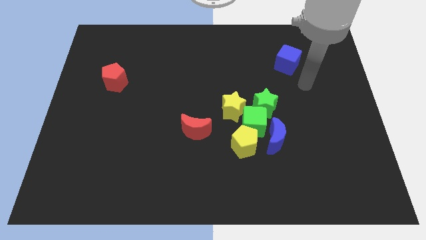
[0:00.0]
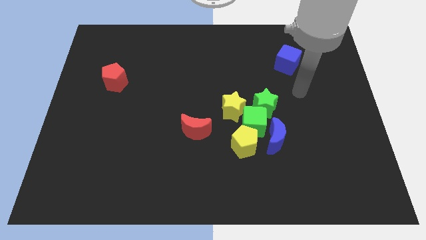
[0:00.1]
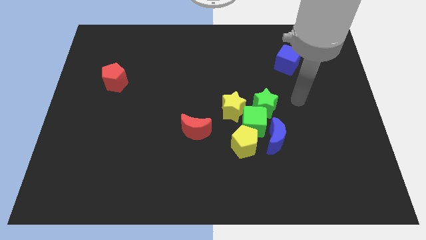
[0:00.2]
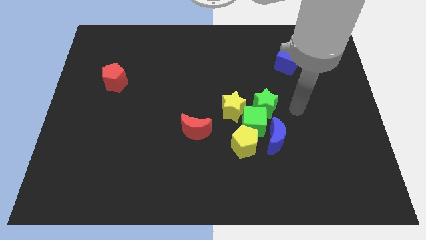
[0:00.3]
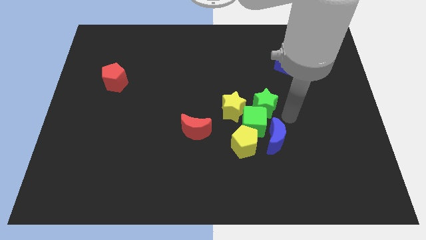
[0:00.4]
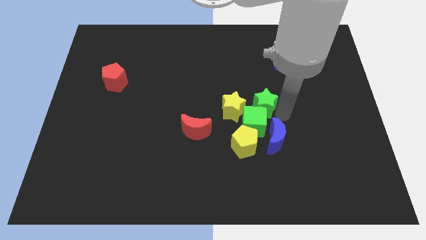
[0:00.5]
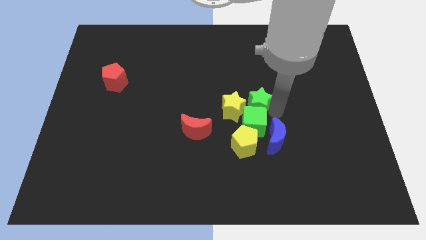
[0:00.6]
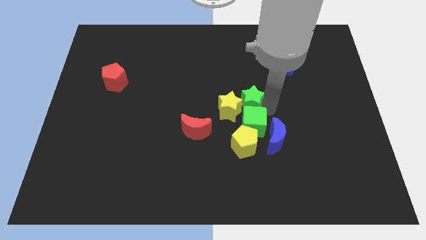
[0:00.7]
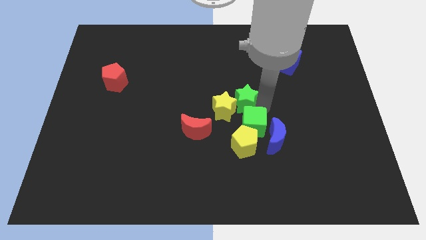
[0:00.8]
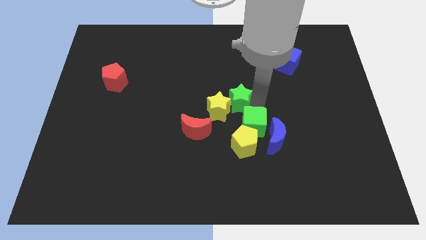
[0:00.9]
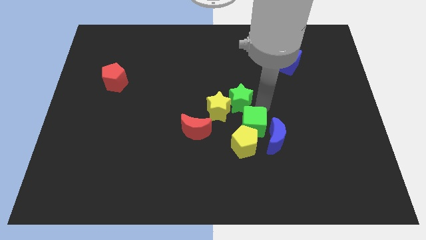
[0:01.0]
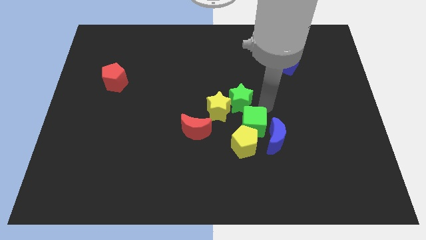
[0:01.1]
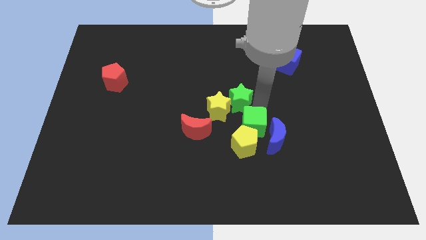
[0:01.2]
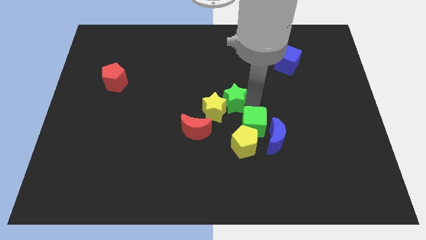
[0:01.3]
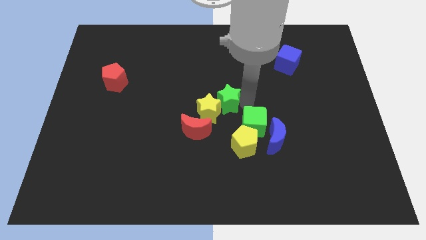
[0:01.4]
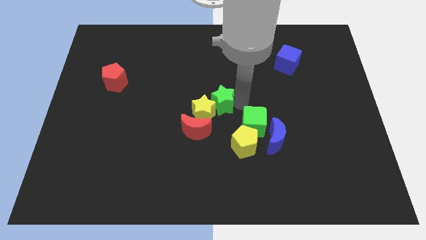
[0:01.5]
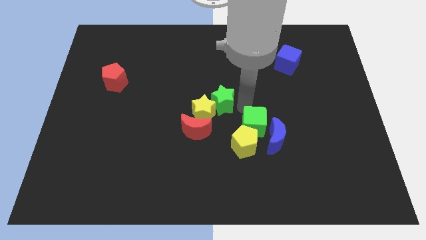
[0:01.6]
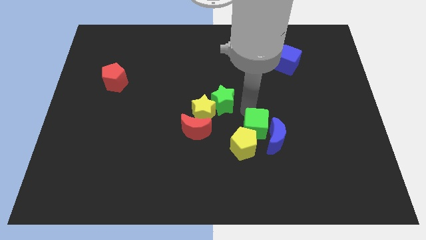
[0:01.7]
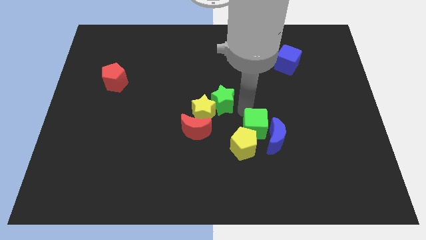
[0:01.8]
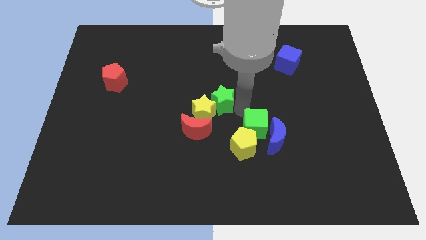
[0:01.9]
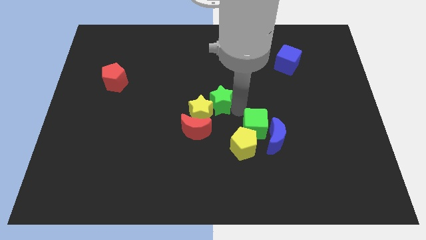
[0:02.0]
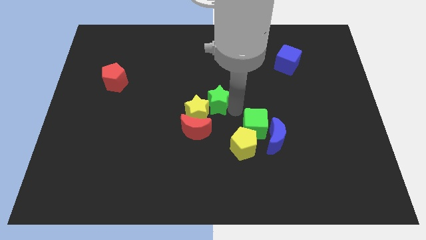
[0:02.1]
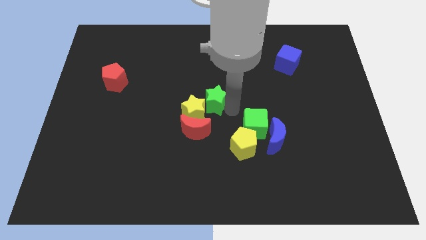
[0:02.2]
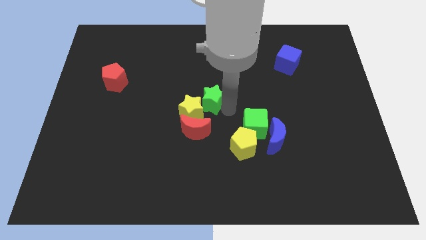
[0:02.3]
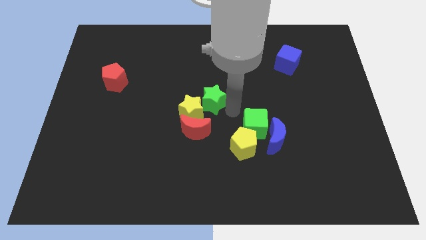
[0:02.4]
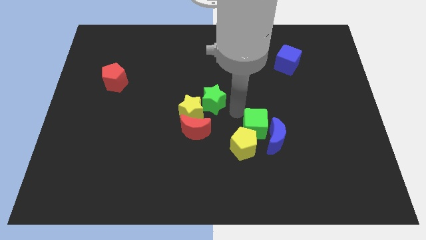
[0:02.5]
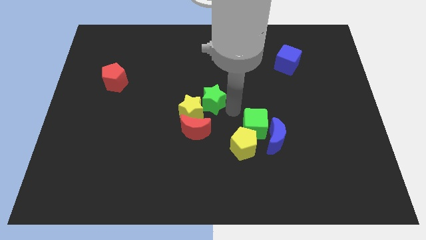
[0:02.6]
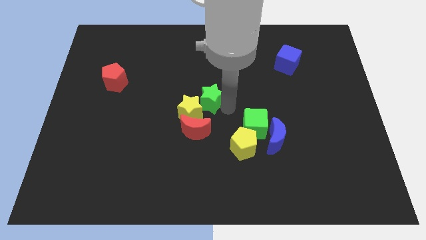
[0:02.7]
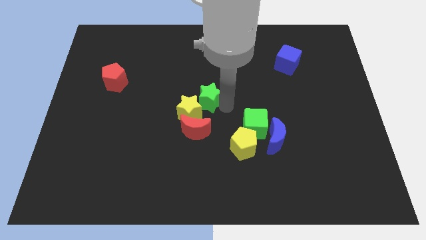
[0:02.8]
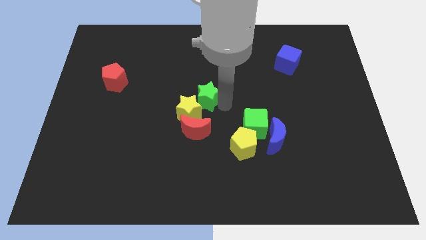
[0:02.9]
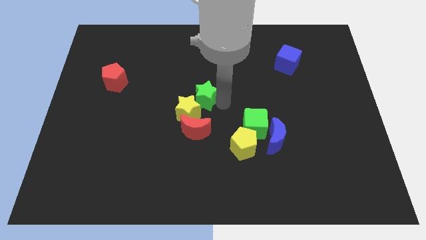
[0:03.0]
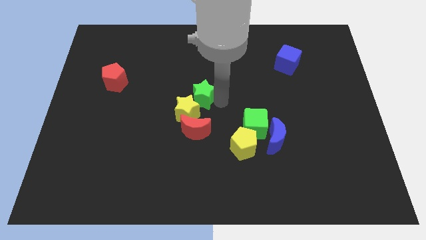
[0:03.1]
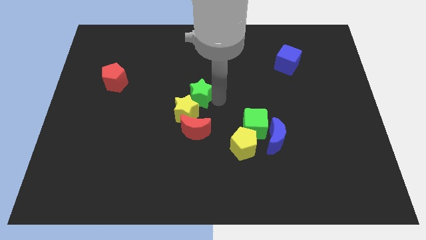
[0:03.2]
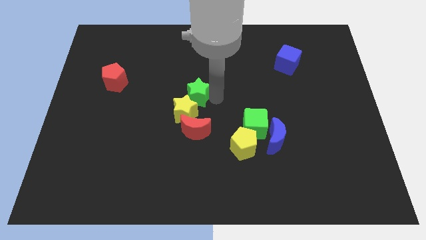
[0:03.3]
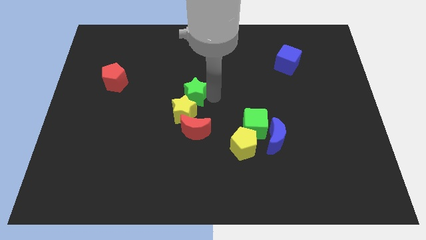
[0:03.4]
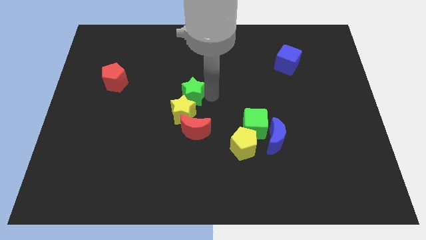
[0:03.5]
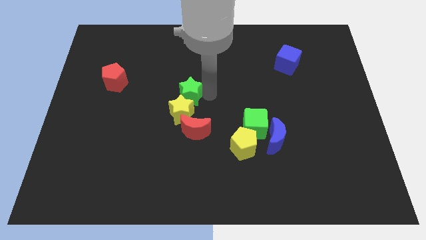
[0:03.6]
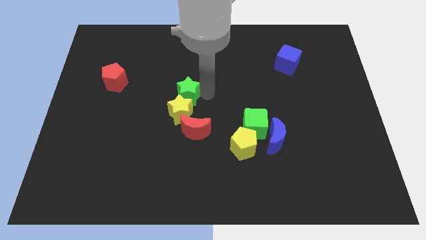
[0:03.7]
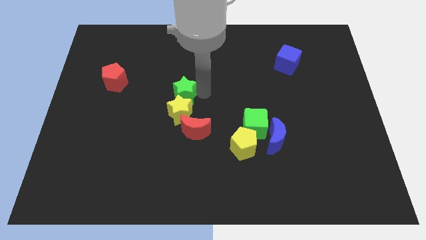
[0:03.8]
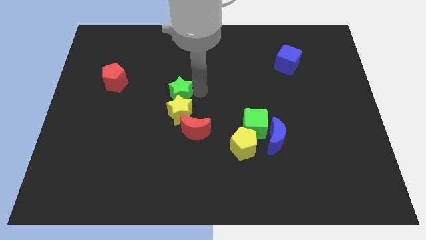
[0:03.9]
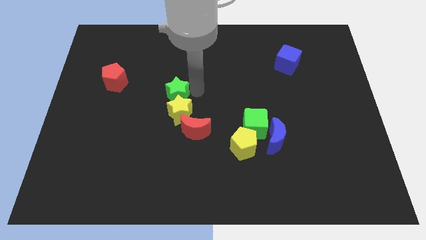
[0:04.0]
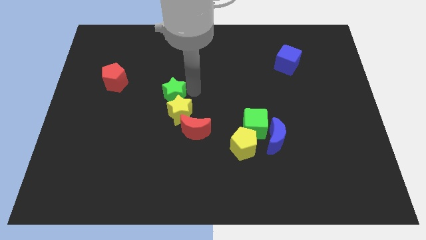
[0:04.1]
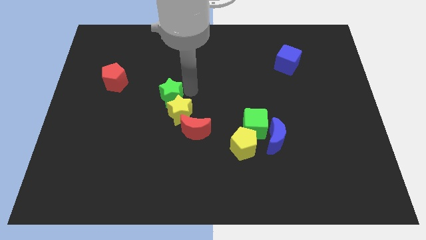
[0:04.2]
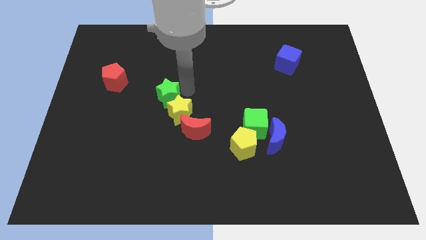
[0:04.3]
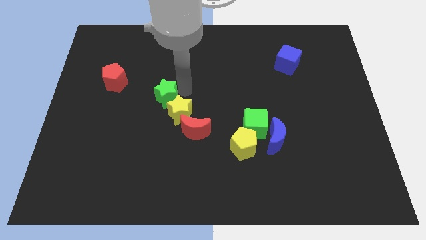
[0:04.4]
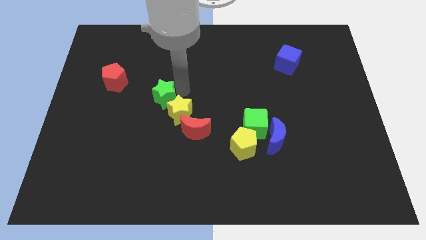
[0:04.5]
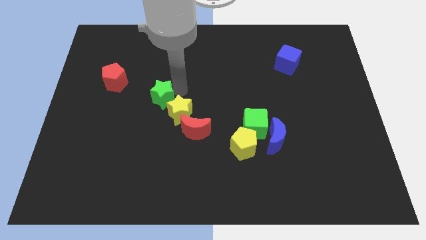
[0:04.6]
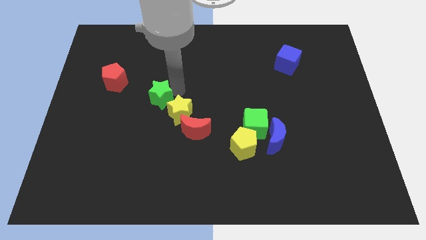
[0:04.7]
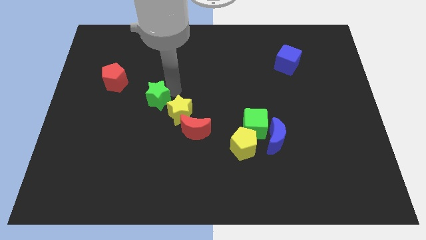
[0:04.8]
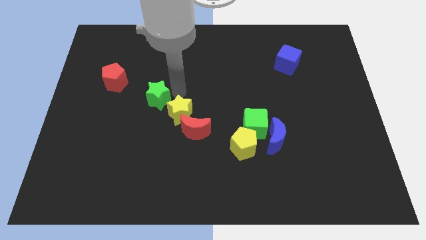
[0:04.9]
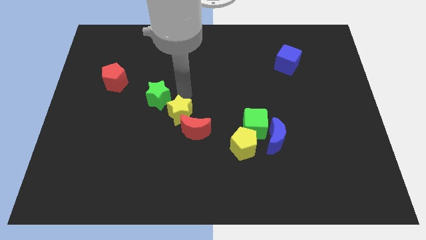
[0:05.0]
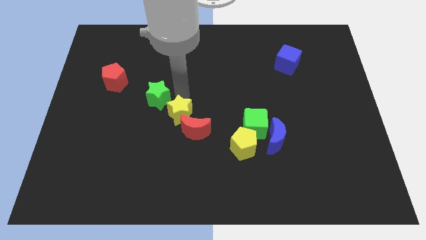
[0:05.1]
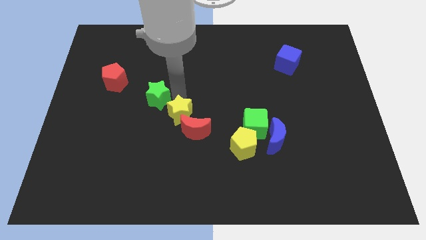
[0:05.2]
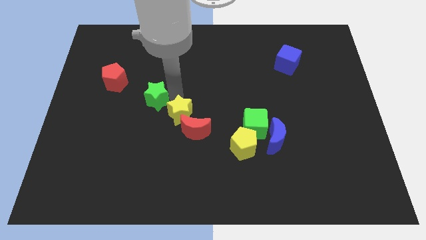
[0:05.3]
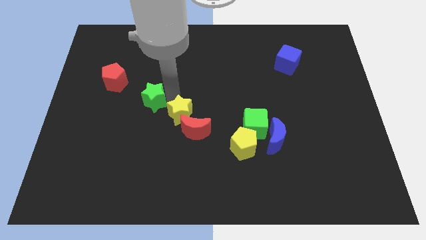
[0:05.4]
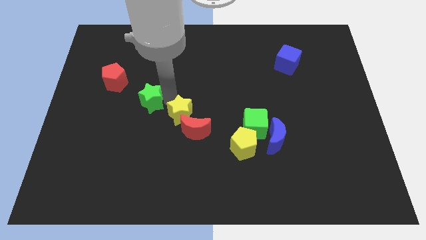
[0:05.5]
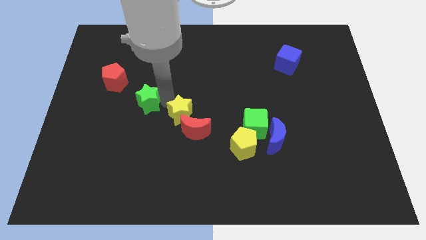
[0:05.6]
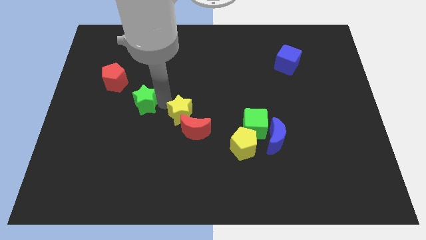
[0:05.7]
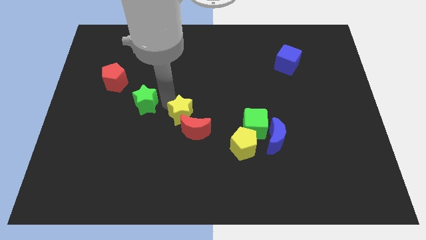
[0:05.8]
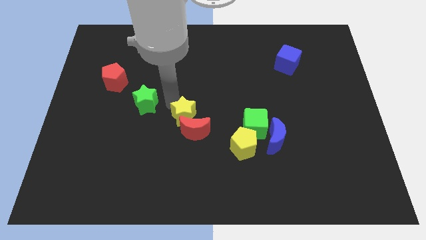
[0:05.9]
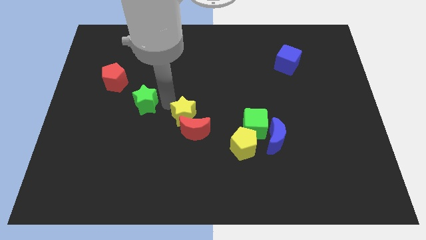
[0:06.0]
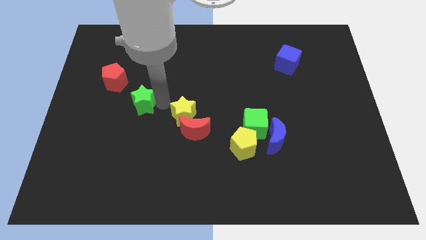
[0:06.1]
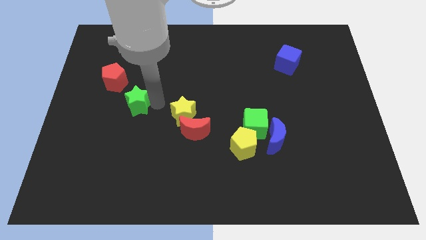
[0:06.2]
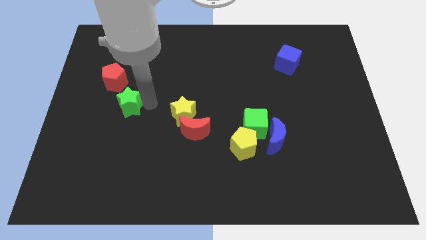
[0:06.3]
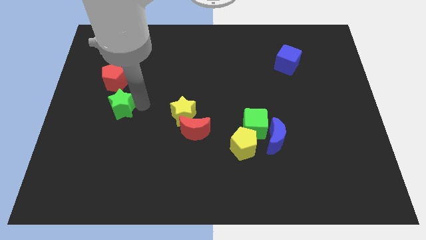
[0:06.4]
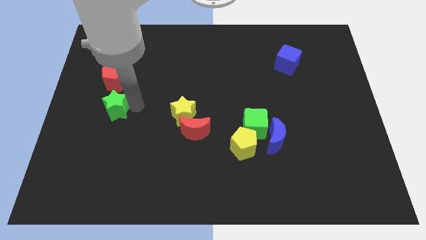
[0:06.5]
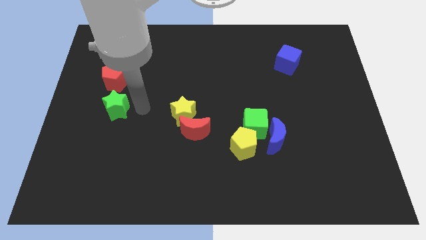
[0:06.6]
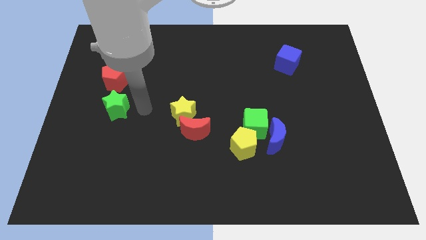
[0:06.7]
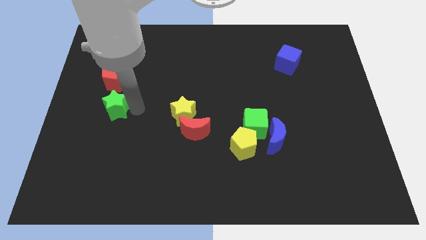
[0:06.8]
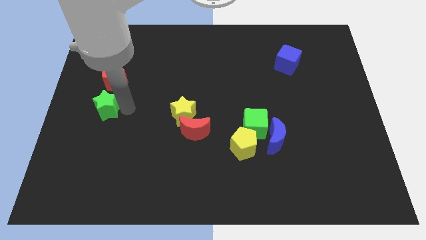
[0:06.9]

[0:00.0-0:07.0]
move the green star to the left side of the board
